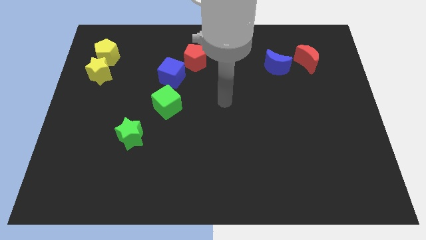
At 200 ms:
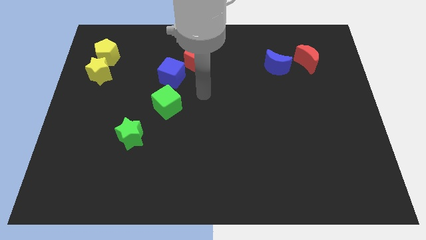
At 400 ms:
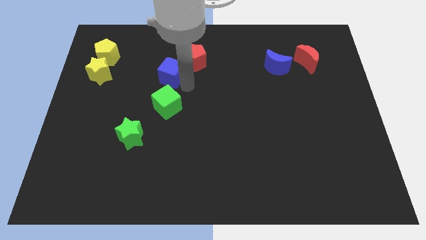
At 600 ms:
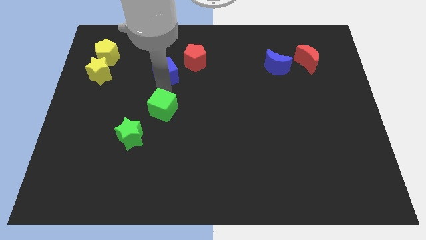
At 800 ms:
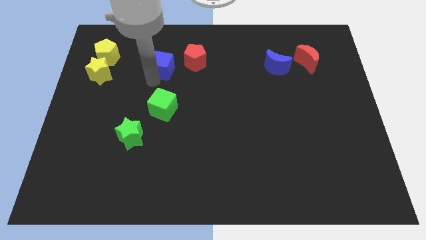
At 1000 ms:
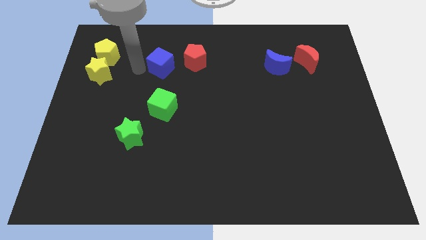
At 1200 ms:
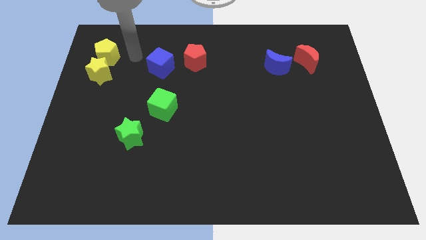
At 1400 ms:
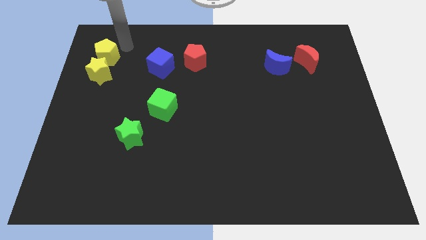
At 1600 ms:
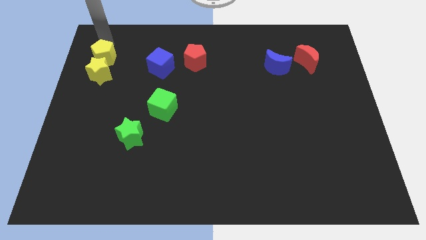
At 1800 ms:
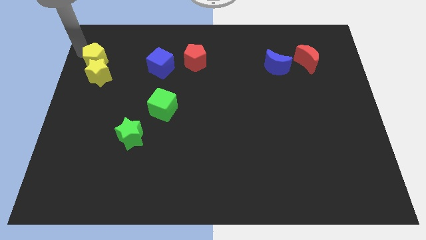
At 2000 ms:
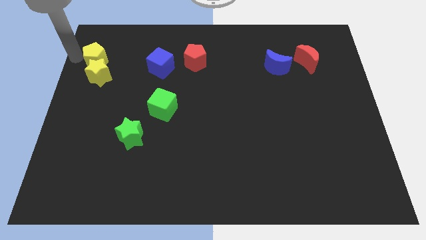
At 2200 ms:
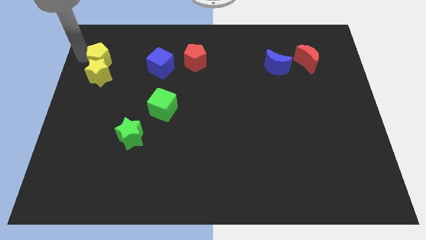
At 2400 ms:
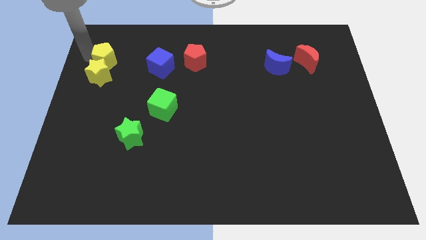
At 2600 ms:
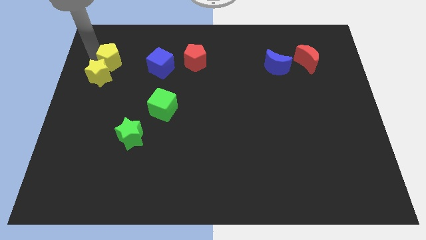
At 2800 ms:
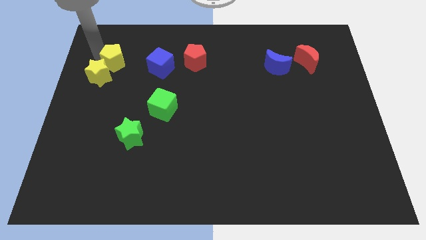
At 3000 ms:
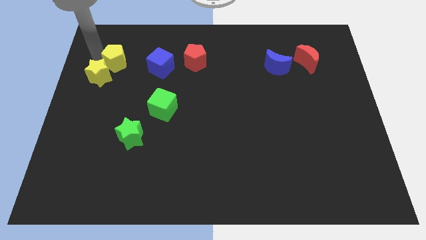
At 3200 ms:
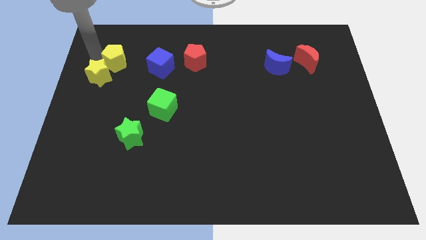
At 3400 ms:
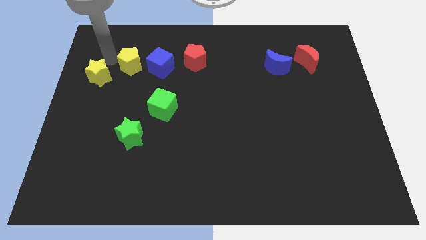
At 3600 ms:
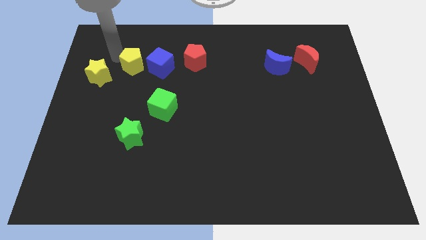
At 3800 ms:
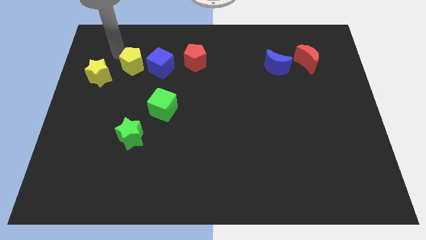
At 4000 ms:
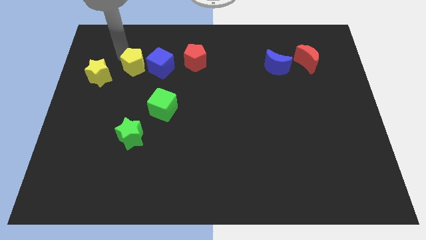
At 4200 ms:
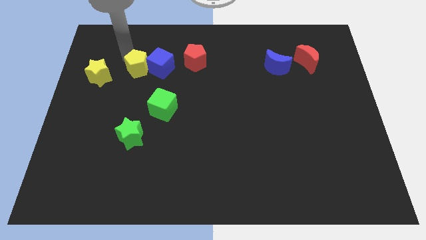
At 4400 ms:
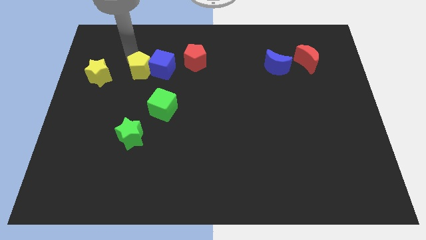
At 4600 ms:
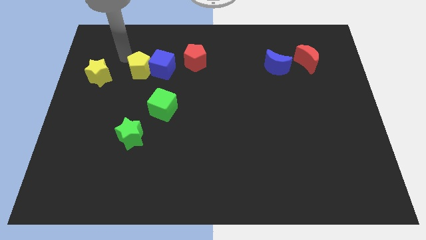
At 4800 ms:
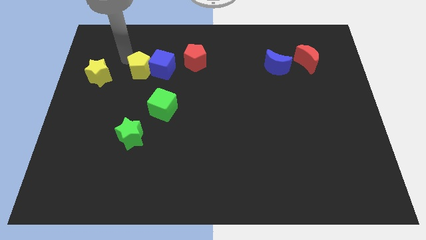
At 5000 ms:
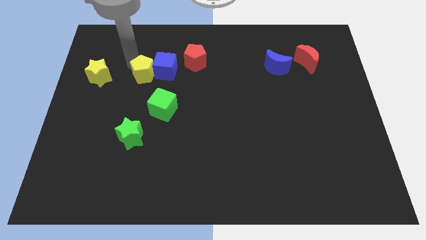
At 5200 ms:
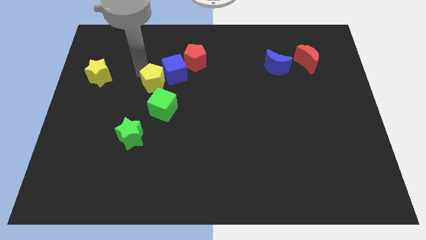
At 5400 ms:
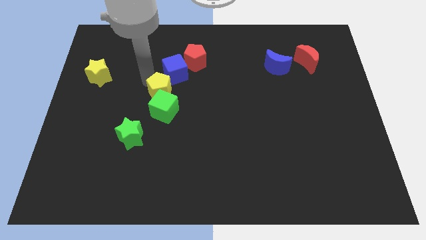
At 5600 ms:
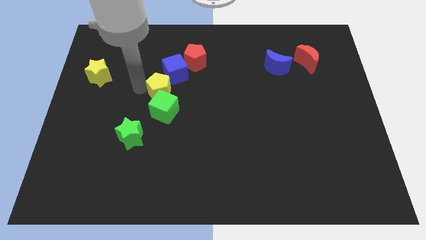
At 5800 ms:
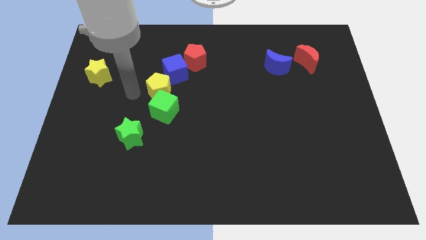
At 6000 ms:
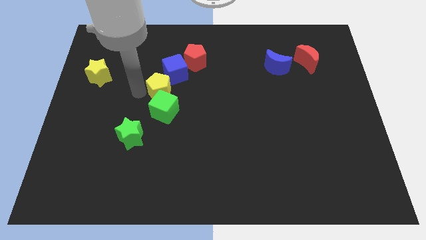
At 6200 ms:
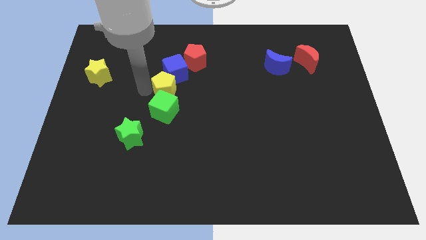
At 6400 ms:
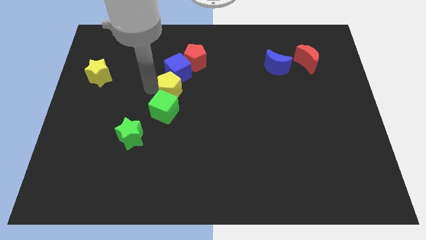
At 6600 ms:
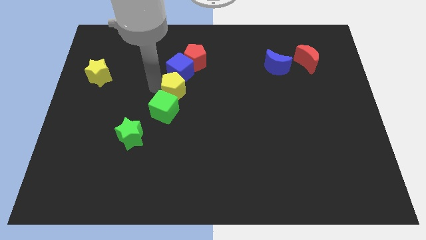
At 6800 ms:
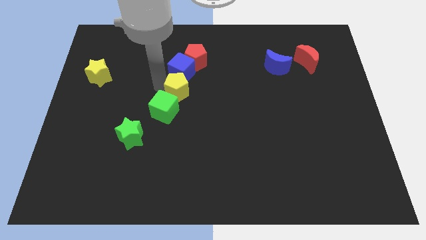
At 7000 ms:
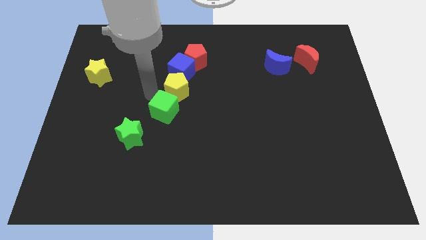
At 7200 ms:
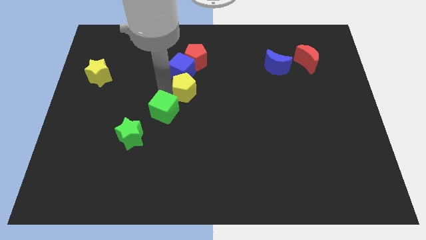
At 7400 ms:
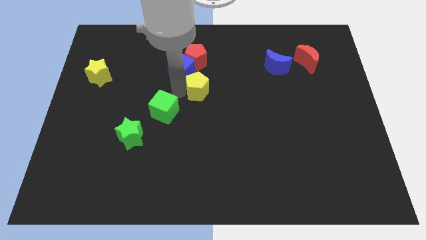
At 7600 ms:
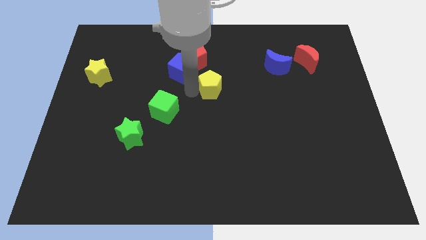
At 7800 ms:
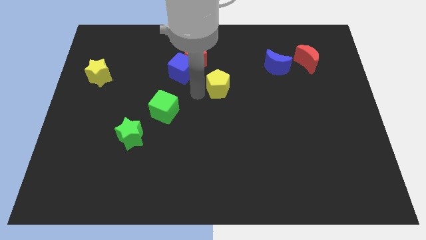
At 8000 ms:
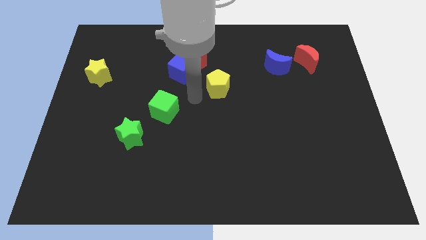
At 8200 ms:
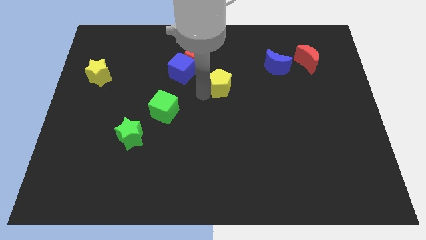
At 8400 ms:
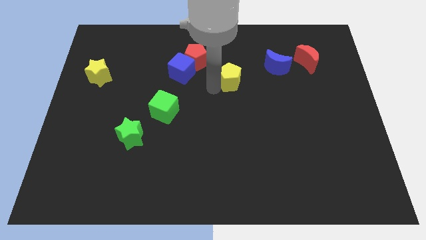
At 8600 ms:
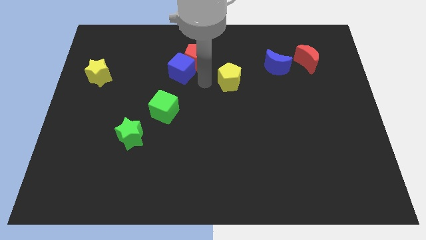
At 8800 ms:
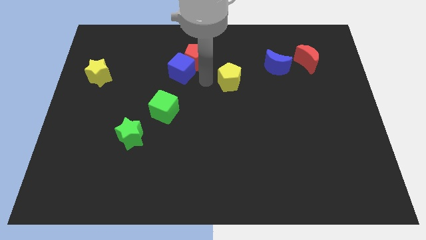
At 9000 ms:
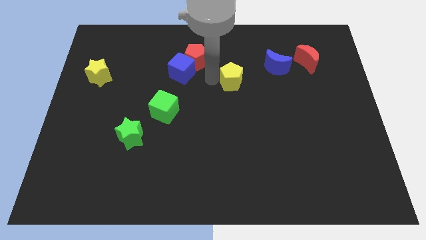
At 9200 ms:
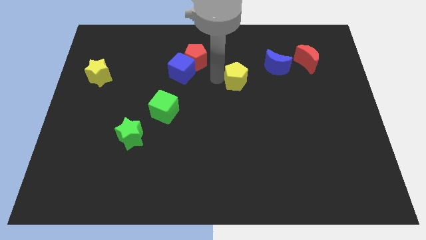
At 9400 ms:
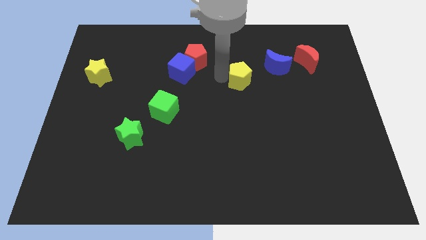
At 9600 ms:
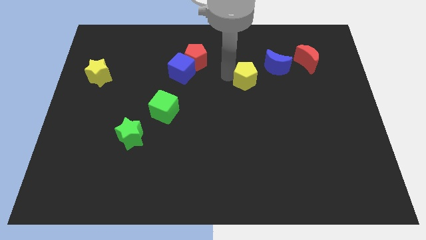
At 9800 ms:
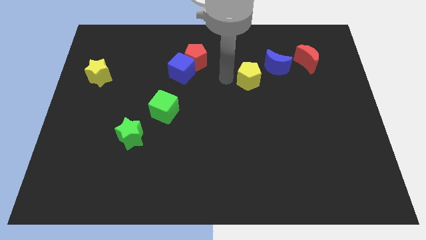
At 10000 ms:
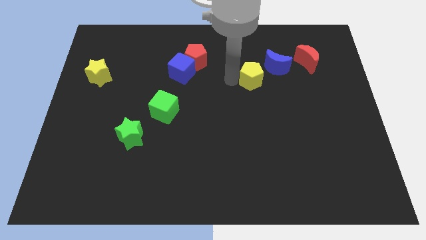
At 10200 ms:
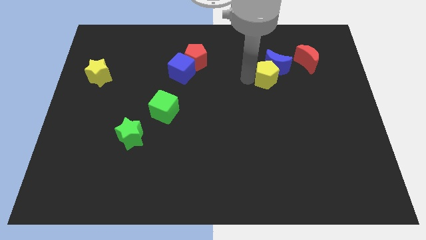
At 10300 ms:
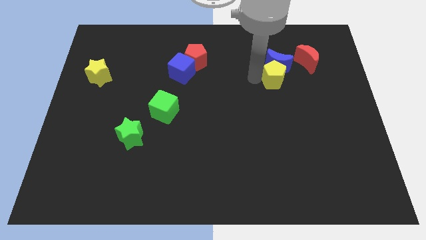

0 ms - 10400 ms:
push the yellow pentagon diagonally down and to the left of the red moon

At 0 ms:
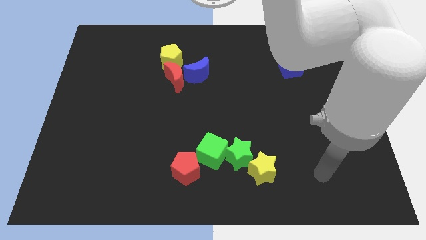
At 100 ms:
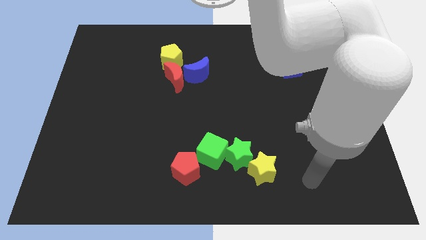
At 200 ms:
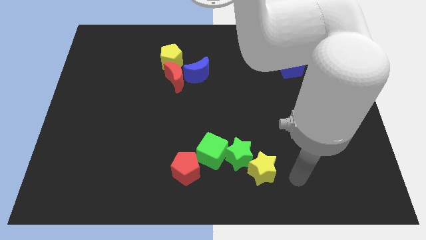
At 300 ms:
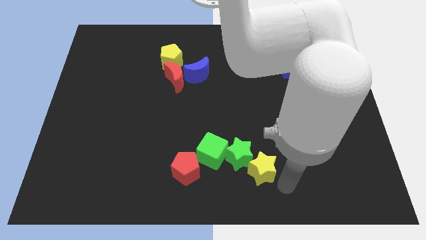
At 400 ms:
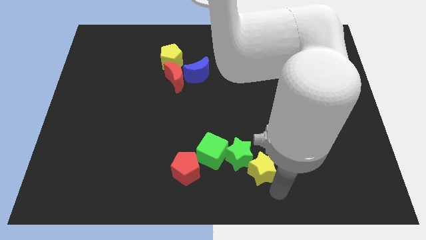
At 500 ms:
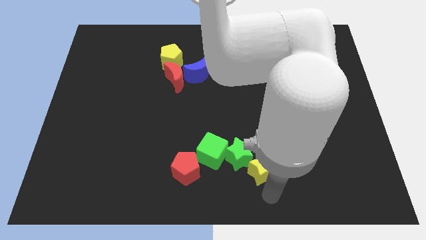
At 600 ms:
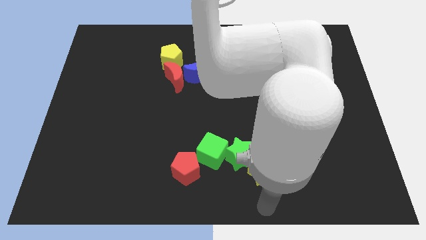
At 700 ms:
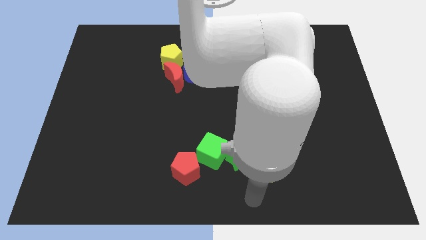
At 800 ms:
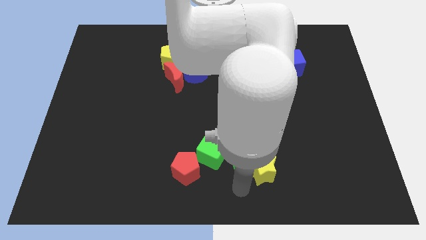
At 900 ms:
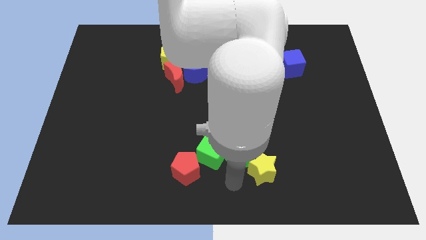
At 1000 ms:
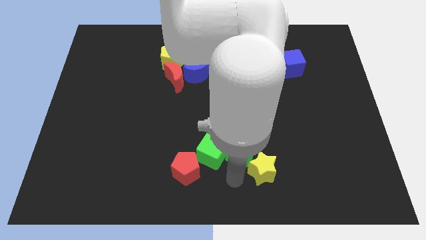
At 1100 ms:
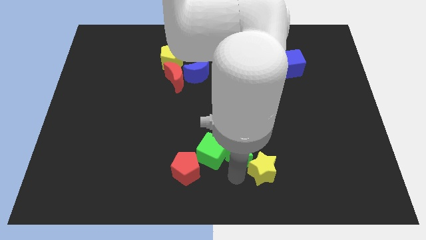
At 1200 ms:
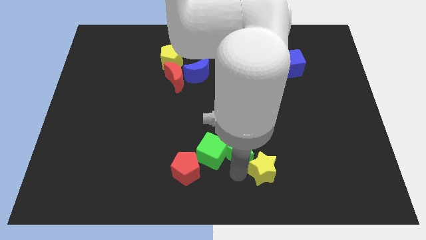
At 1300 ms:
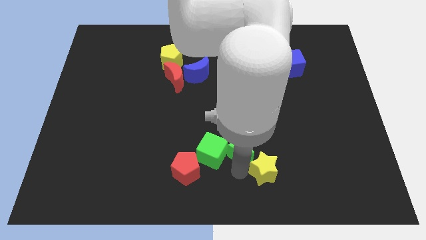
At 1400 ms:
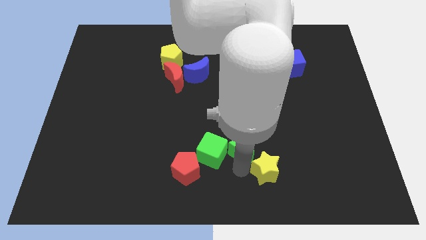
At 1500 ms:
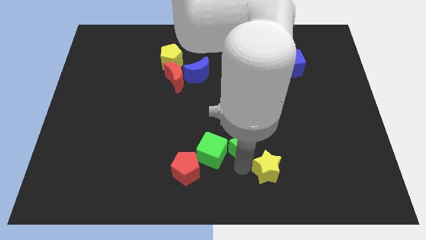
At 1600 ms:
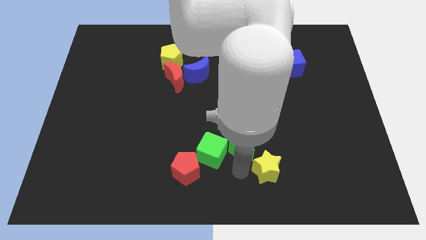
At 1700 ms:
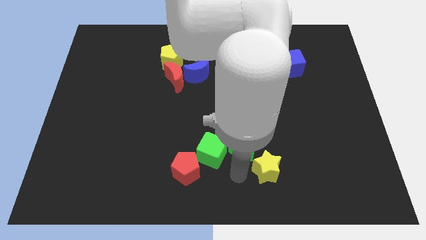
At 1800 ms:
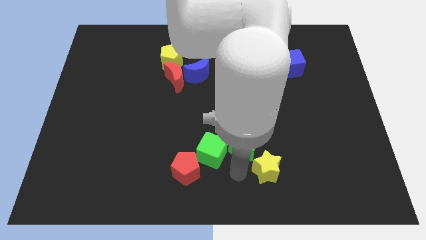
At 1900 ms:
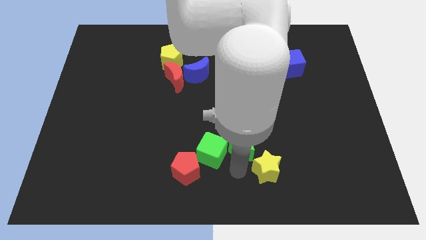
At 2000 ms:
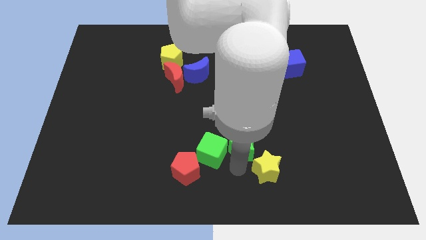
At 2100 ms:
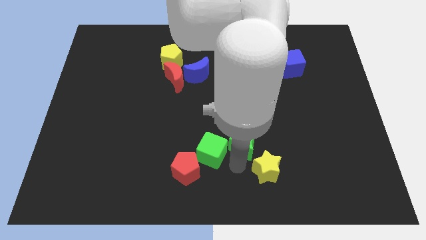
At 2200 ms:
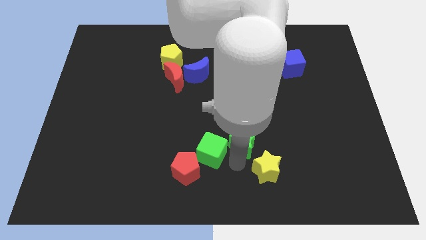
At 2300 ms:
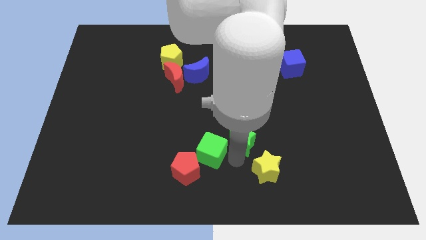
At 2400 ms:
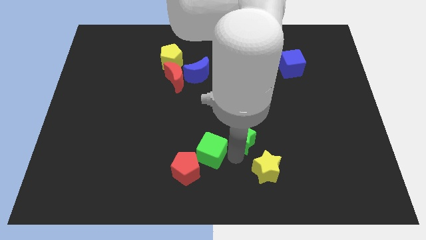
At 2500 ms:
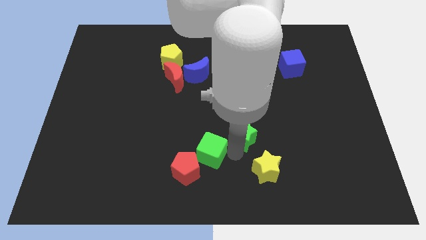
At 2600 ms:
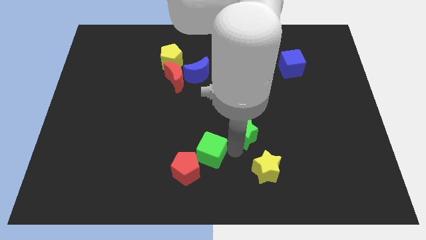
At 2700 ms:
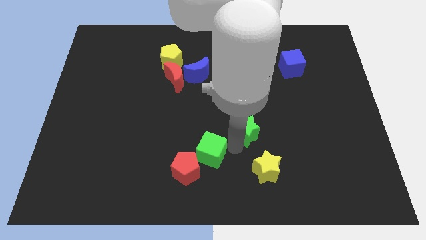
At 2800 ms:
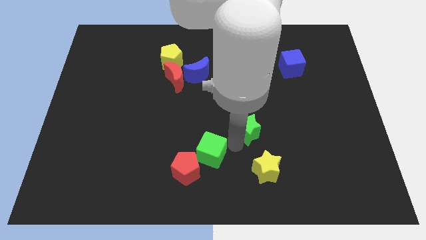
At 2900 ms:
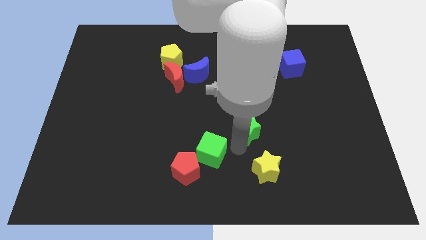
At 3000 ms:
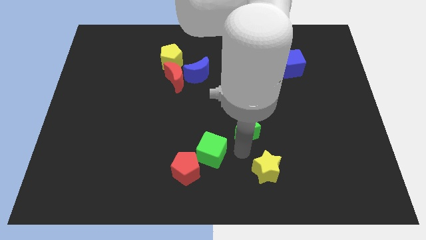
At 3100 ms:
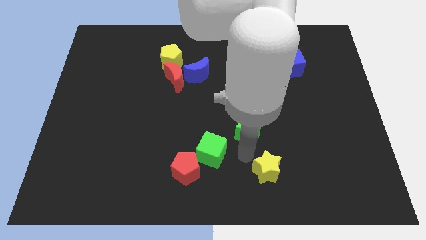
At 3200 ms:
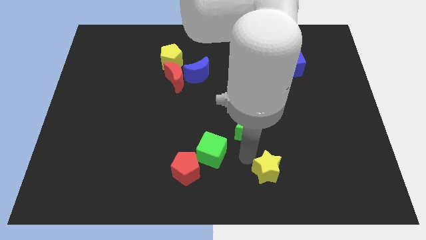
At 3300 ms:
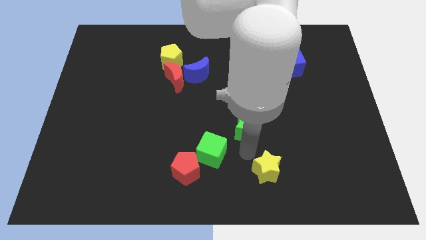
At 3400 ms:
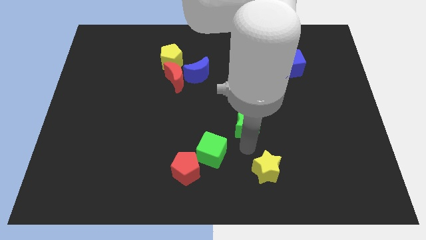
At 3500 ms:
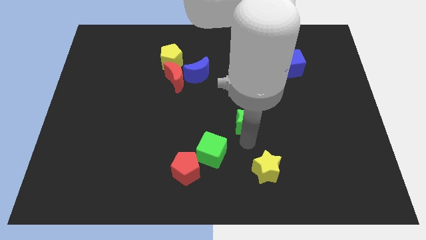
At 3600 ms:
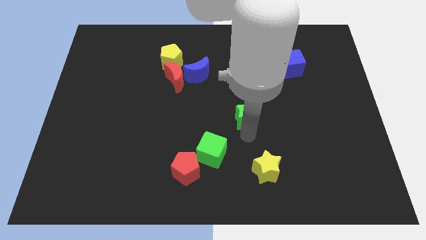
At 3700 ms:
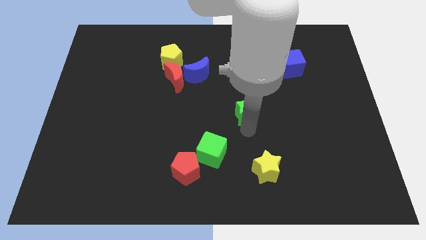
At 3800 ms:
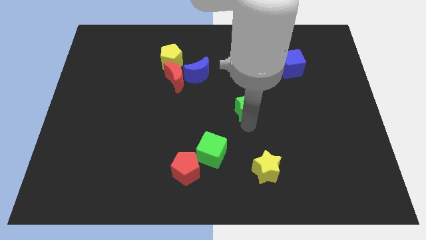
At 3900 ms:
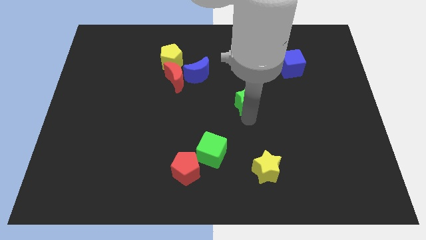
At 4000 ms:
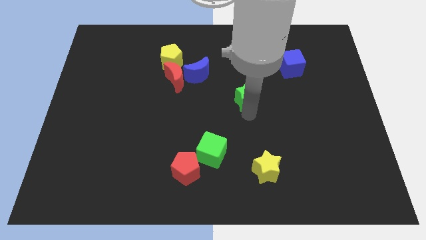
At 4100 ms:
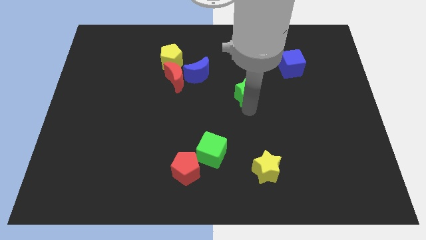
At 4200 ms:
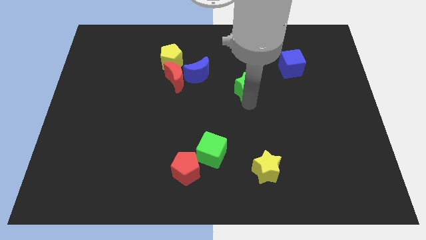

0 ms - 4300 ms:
move the green star just right of the blue moon
